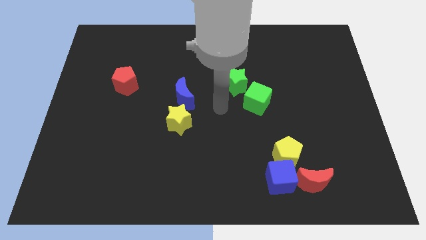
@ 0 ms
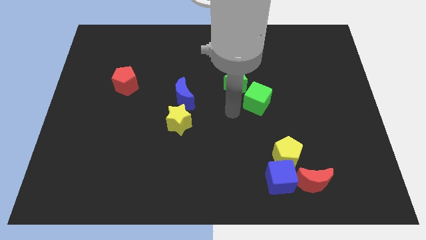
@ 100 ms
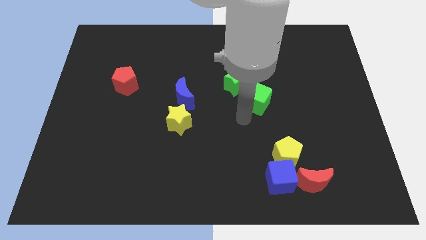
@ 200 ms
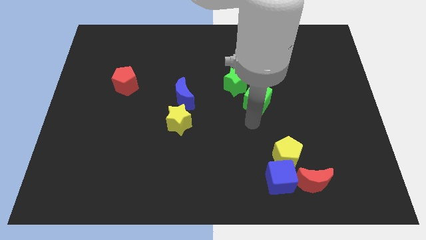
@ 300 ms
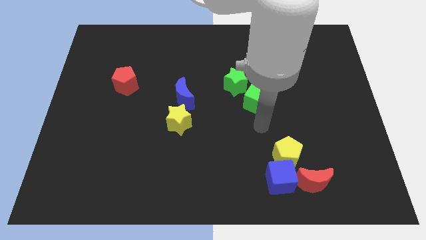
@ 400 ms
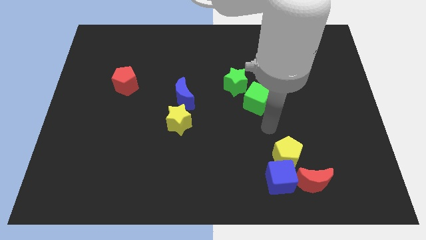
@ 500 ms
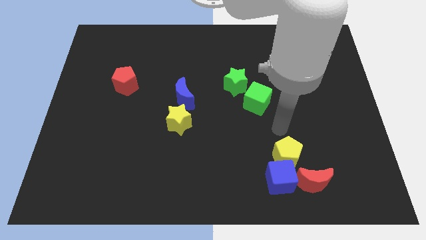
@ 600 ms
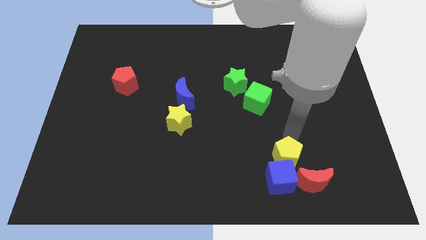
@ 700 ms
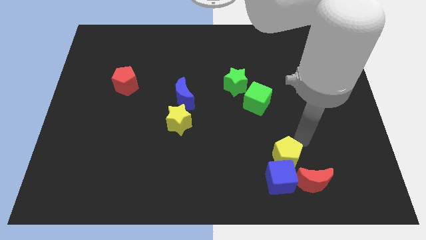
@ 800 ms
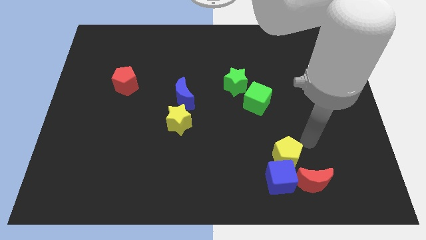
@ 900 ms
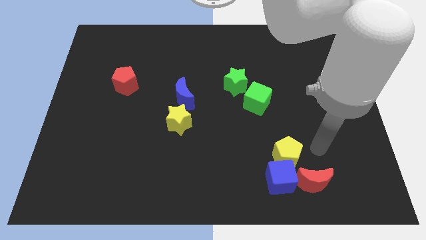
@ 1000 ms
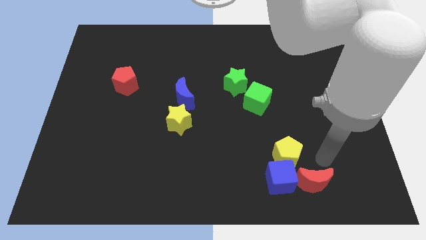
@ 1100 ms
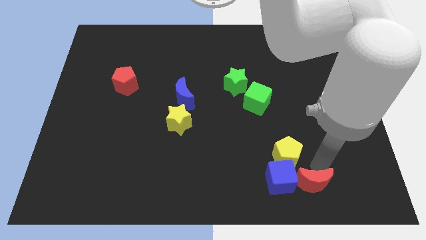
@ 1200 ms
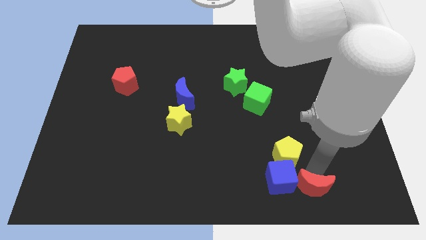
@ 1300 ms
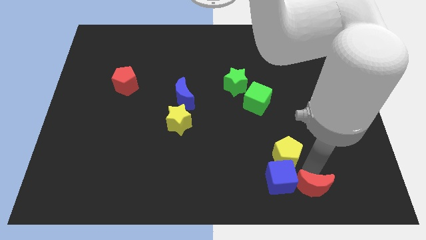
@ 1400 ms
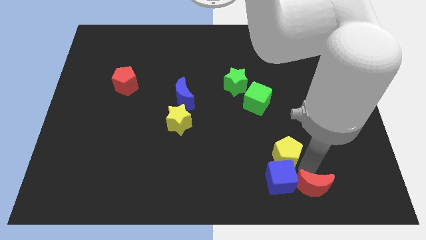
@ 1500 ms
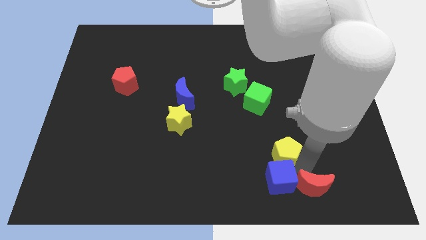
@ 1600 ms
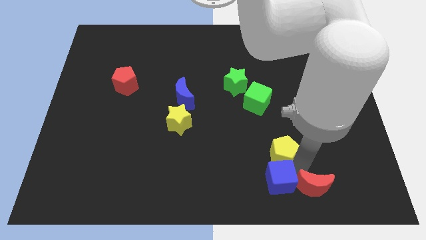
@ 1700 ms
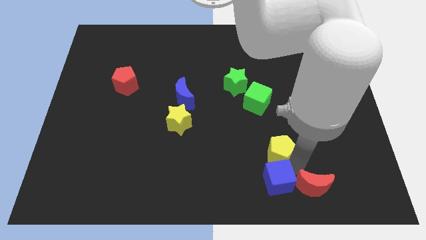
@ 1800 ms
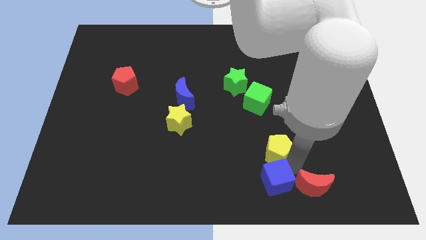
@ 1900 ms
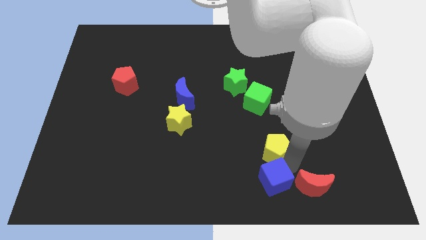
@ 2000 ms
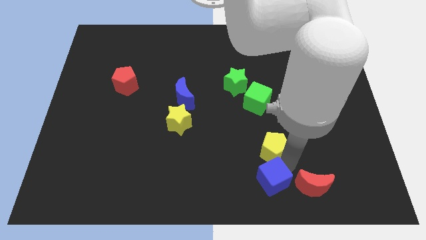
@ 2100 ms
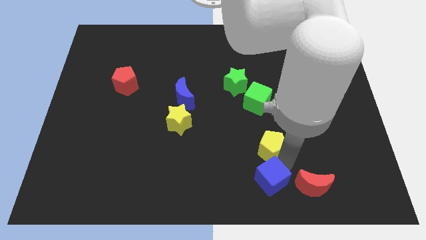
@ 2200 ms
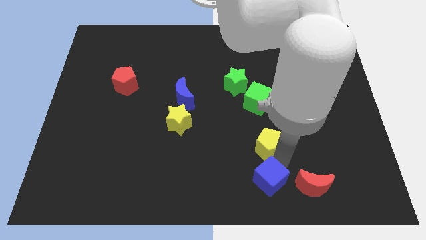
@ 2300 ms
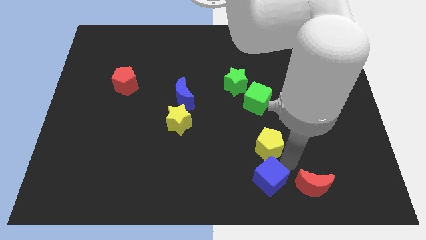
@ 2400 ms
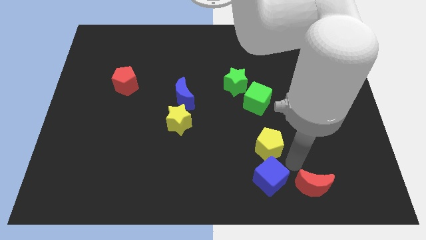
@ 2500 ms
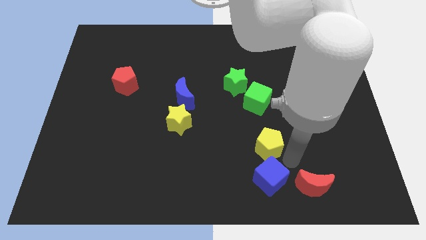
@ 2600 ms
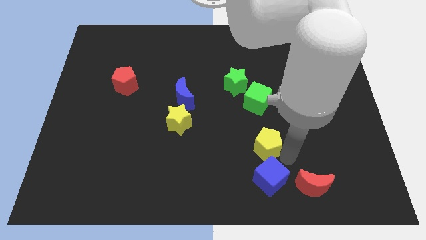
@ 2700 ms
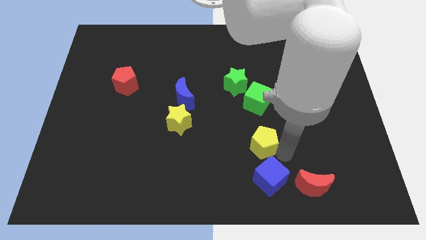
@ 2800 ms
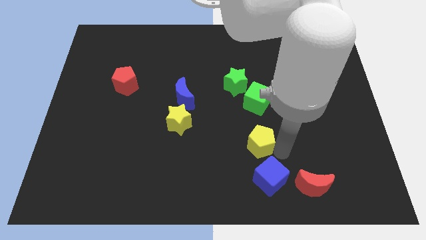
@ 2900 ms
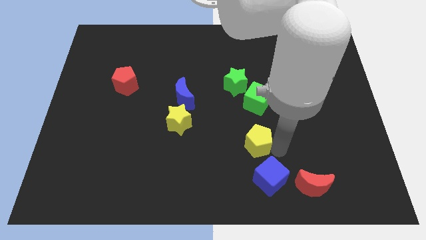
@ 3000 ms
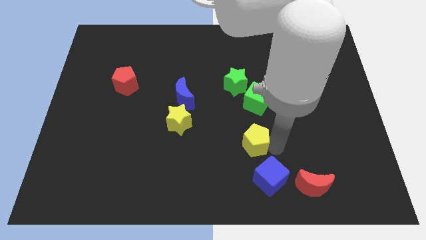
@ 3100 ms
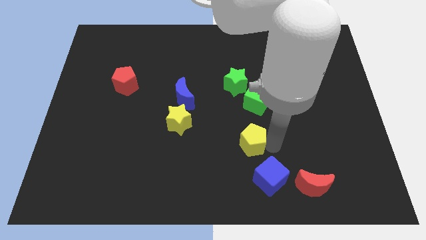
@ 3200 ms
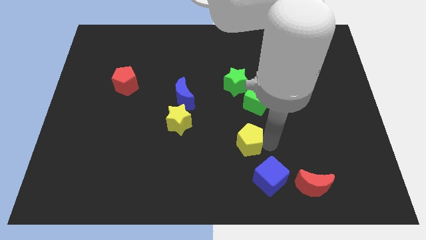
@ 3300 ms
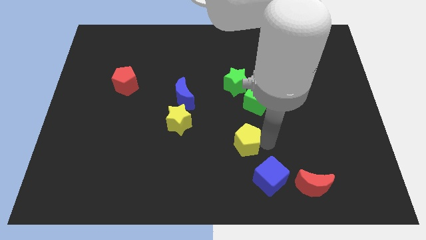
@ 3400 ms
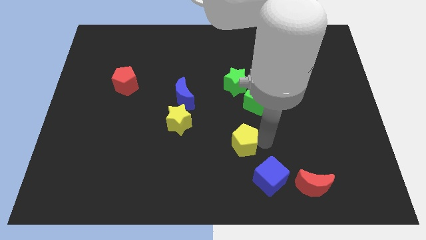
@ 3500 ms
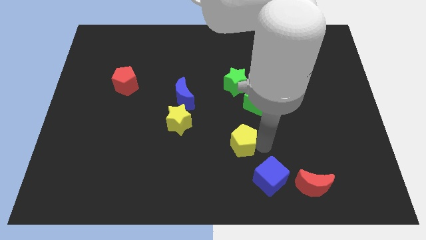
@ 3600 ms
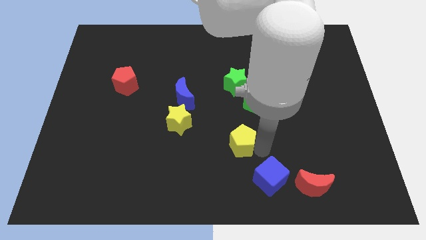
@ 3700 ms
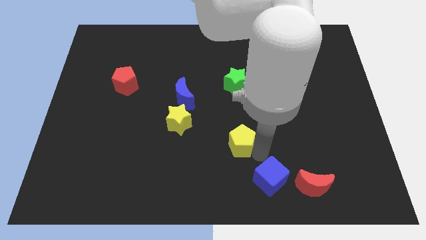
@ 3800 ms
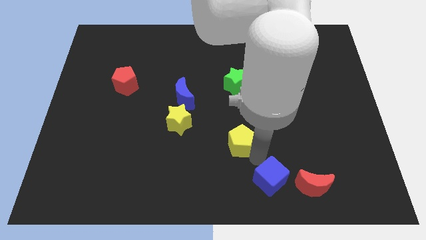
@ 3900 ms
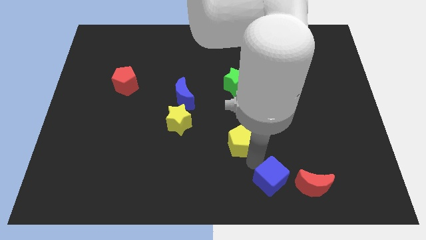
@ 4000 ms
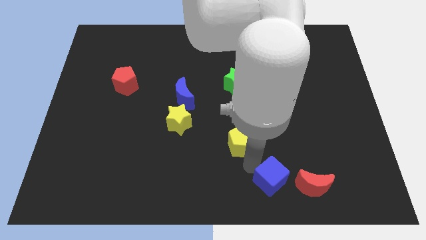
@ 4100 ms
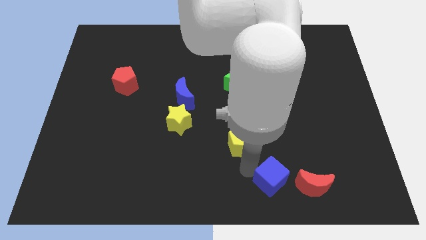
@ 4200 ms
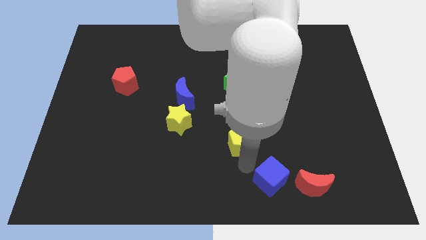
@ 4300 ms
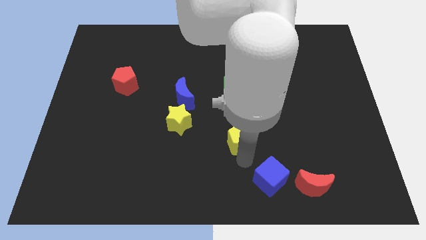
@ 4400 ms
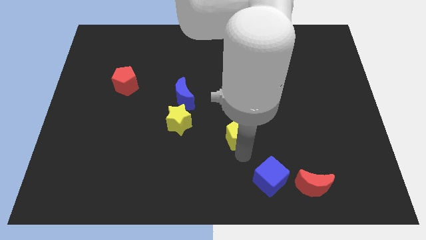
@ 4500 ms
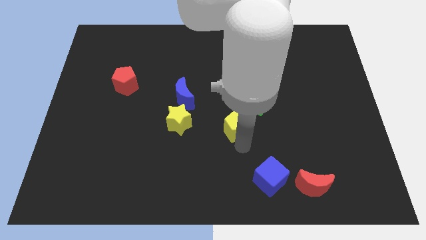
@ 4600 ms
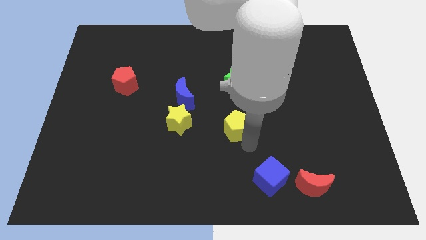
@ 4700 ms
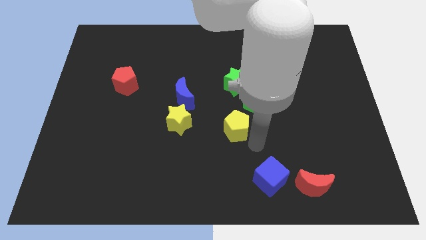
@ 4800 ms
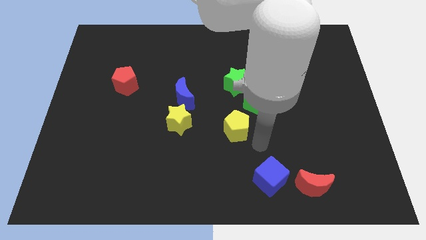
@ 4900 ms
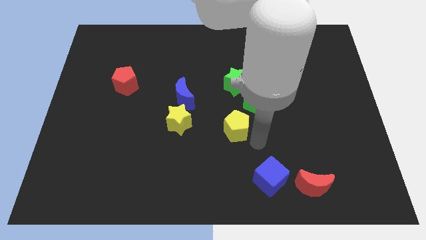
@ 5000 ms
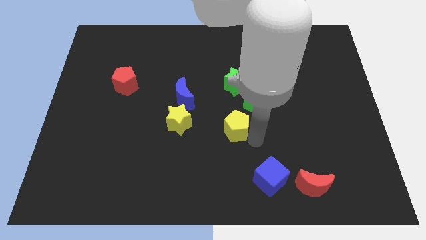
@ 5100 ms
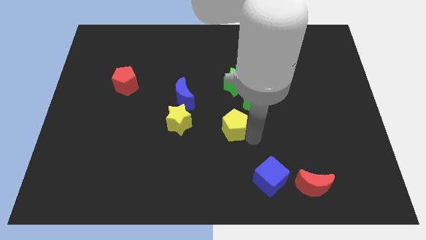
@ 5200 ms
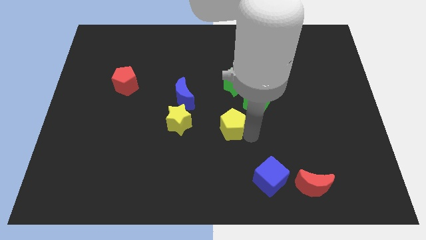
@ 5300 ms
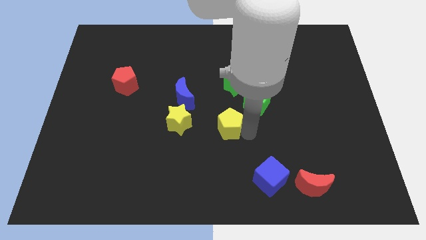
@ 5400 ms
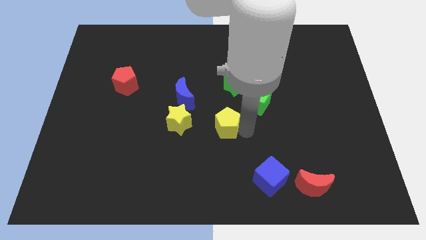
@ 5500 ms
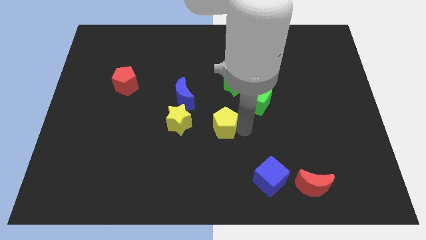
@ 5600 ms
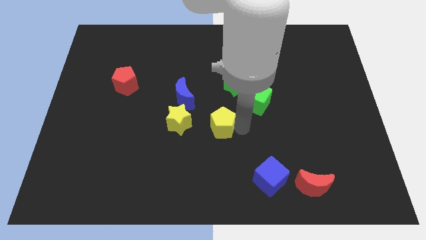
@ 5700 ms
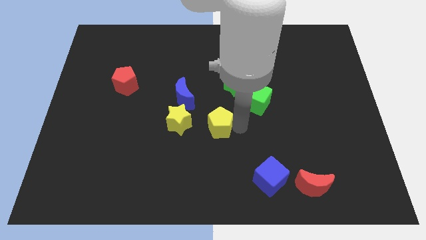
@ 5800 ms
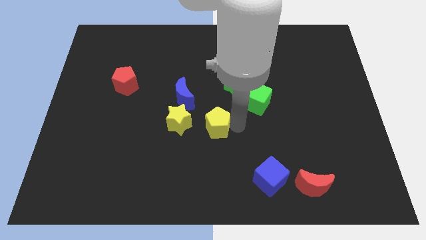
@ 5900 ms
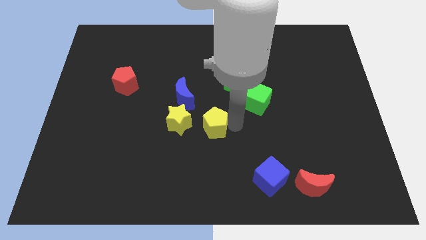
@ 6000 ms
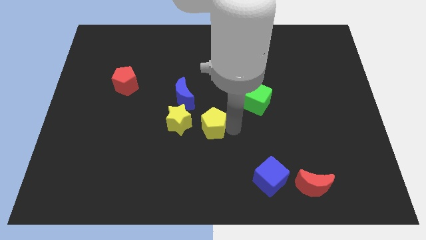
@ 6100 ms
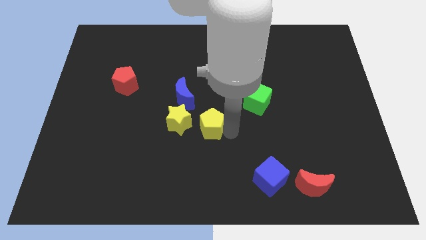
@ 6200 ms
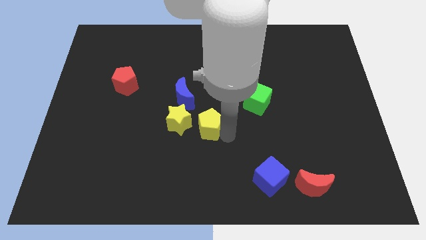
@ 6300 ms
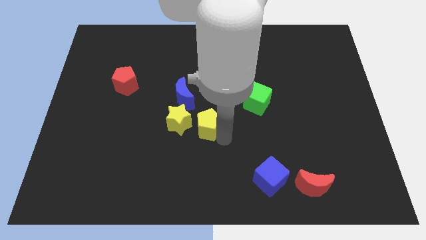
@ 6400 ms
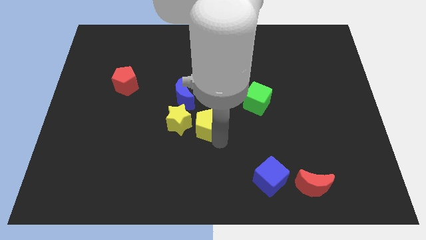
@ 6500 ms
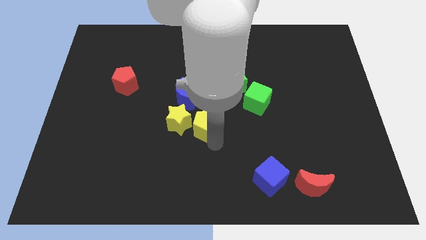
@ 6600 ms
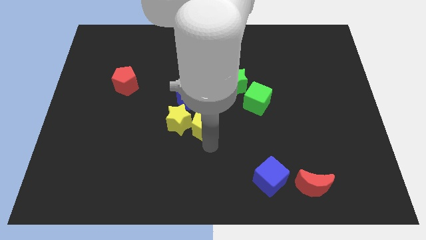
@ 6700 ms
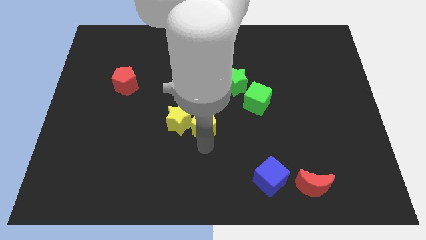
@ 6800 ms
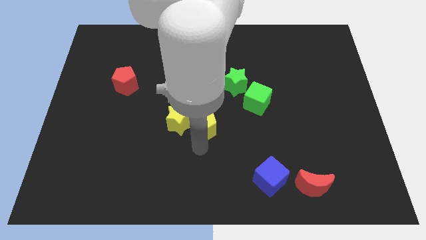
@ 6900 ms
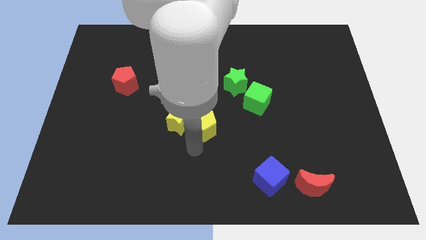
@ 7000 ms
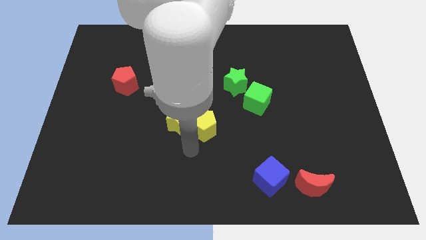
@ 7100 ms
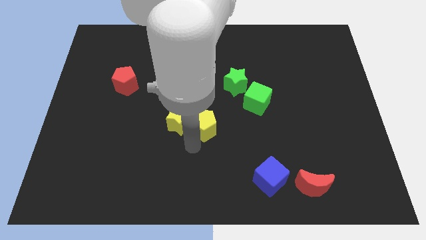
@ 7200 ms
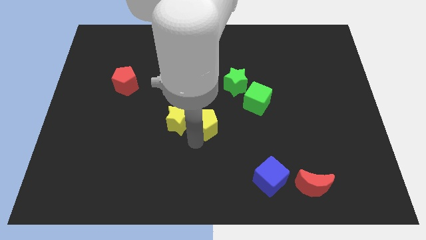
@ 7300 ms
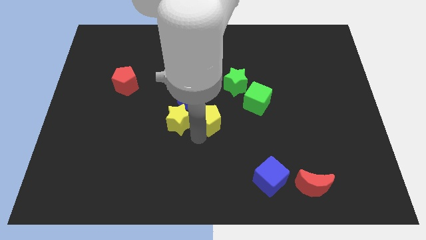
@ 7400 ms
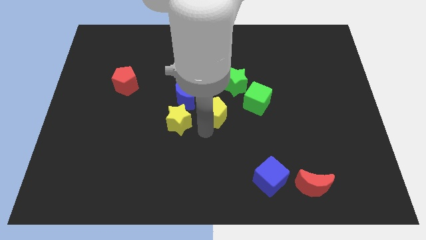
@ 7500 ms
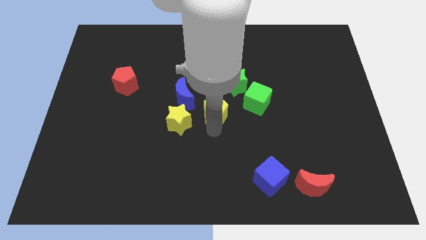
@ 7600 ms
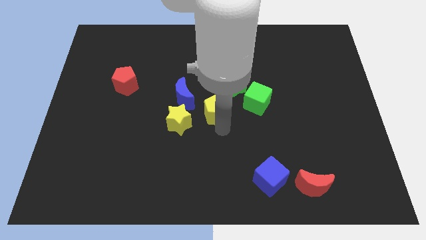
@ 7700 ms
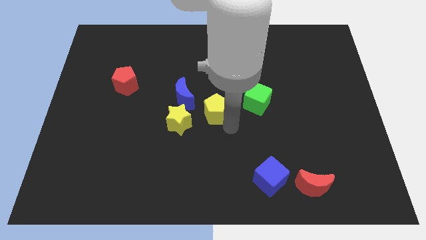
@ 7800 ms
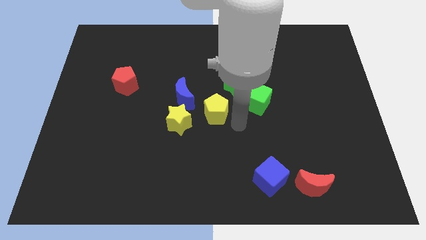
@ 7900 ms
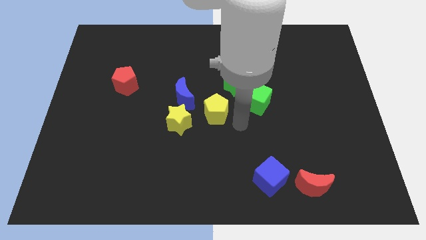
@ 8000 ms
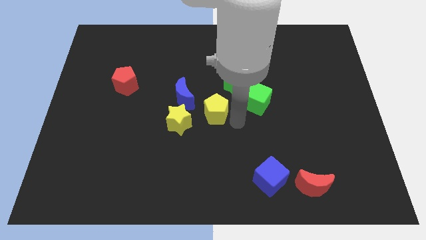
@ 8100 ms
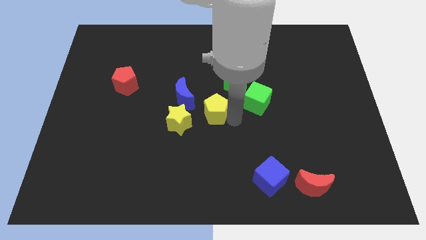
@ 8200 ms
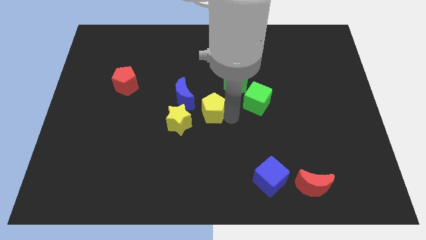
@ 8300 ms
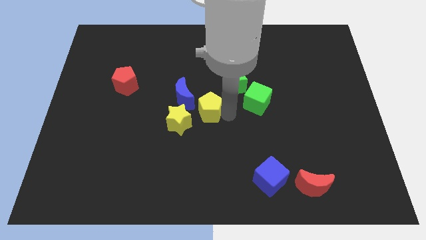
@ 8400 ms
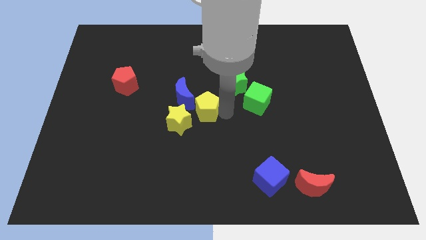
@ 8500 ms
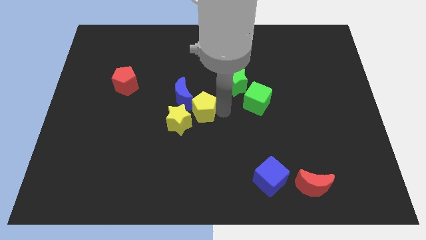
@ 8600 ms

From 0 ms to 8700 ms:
push the yellow pentagon close to the blue moon
